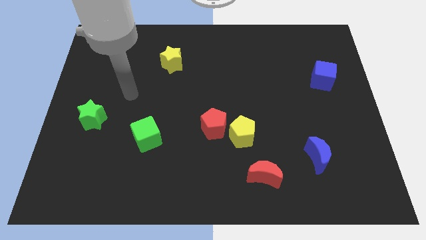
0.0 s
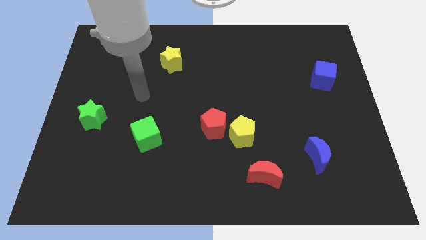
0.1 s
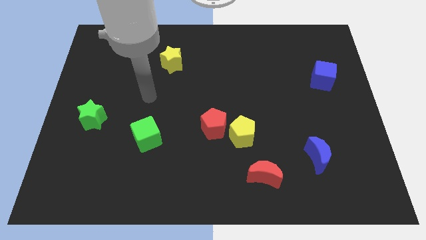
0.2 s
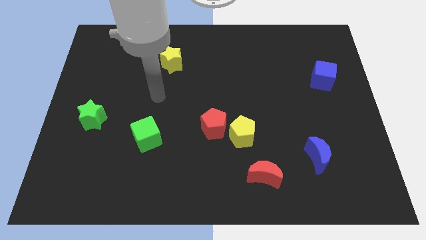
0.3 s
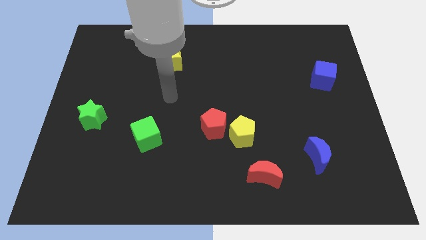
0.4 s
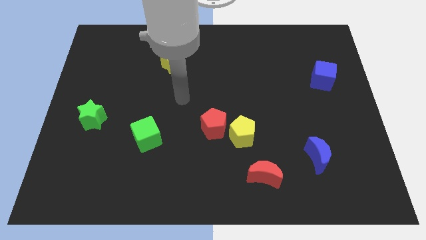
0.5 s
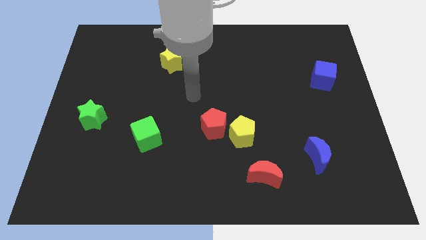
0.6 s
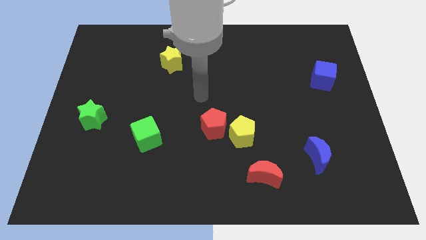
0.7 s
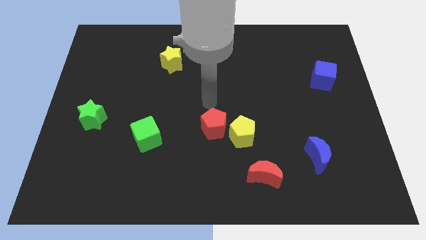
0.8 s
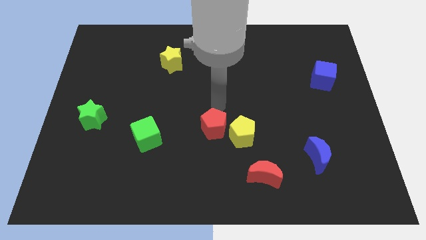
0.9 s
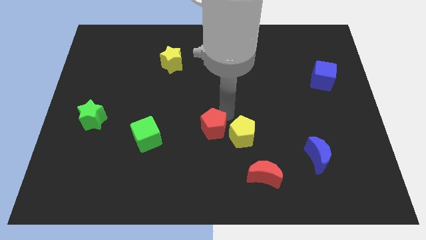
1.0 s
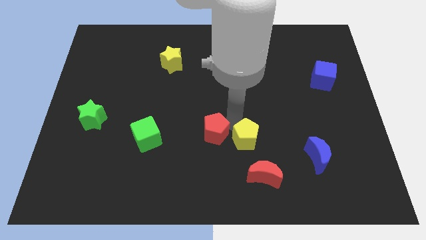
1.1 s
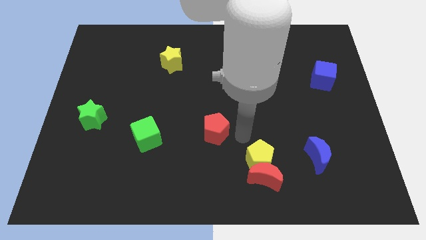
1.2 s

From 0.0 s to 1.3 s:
move the red pentagon away from the yellow pentagon

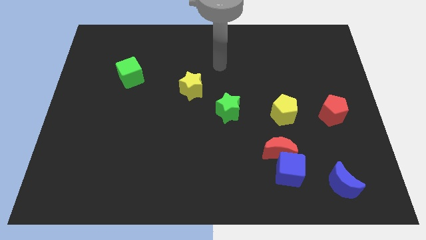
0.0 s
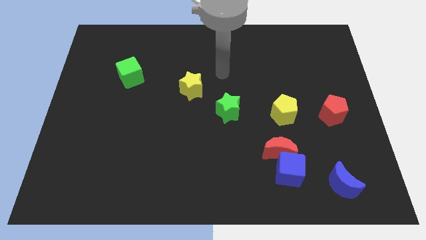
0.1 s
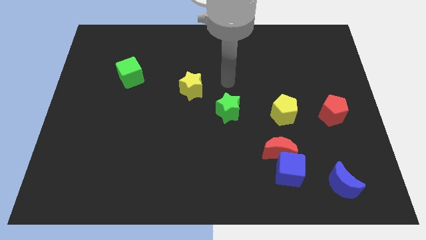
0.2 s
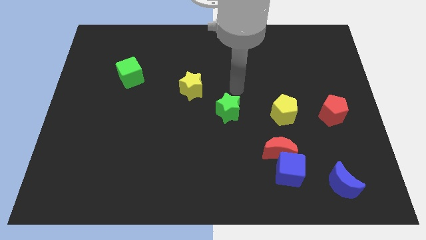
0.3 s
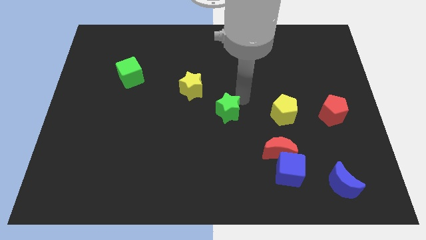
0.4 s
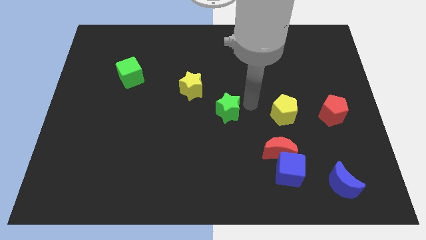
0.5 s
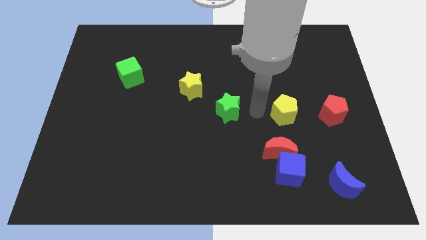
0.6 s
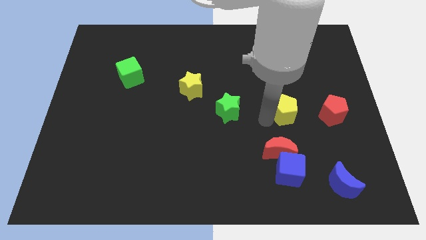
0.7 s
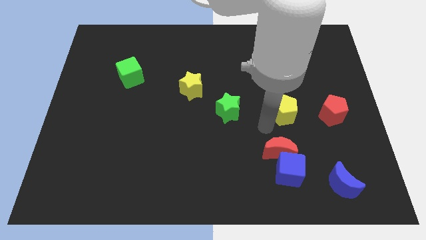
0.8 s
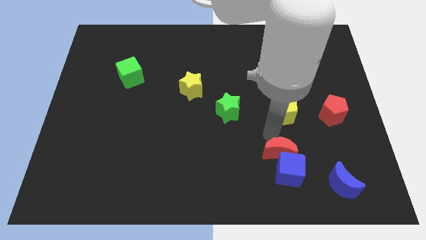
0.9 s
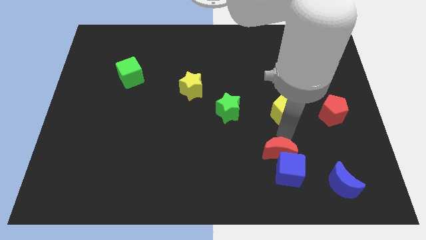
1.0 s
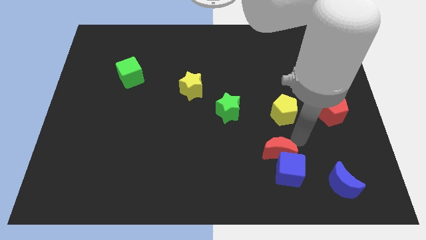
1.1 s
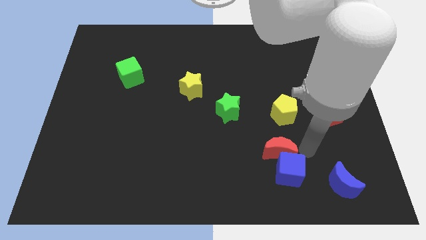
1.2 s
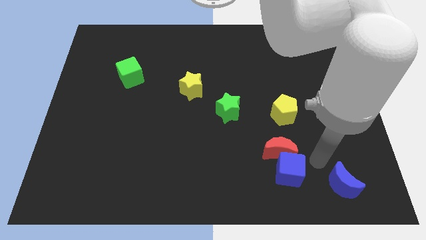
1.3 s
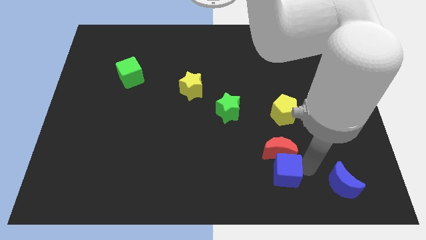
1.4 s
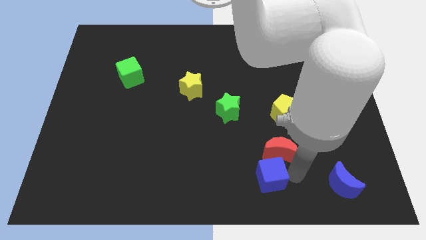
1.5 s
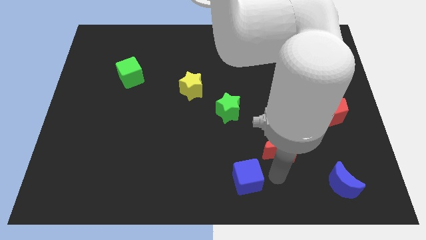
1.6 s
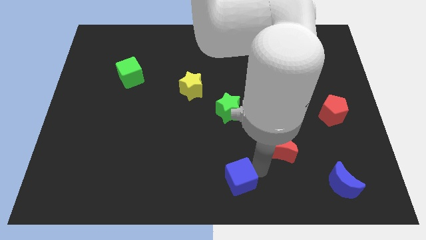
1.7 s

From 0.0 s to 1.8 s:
move the red moon away from the blue cube

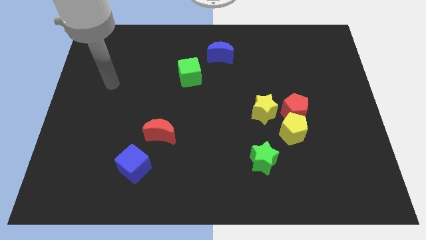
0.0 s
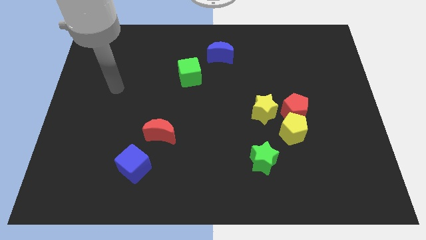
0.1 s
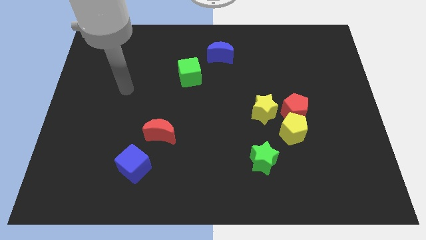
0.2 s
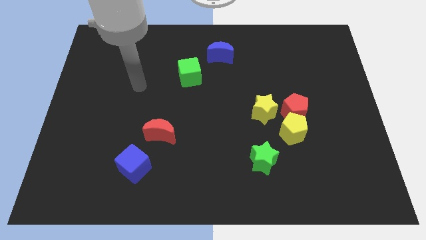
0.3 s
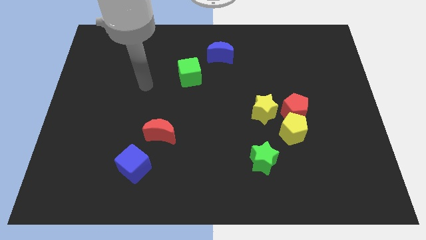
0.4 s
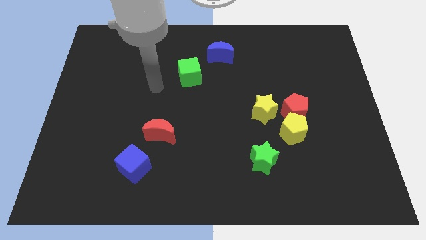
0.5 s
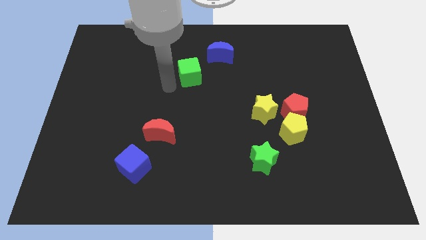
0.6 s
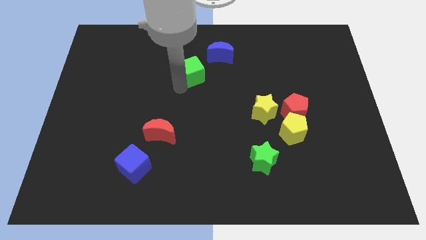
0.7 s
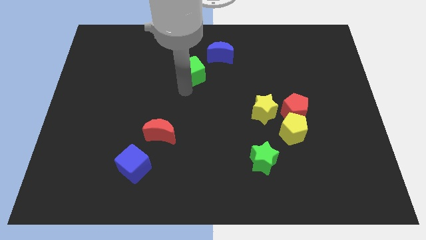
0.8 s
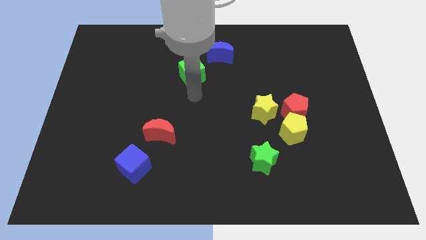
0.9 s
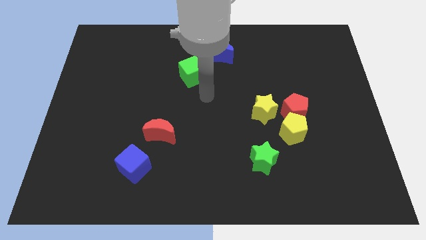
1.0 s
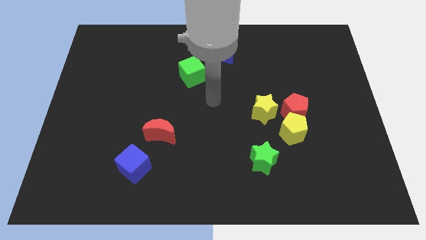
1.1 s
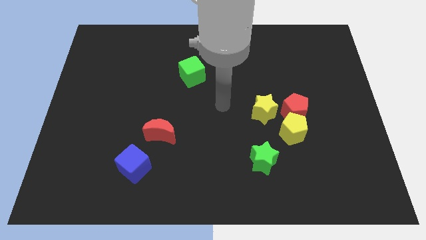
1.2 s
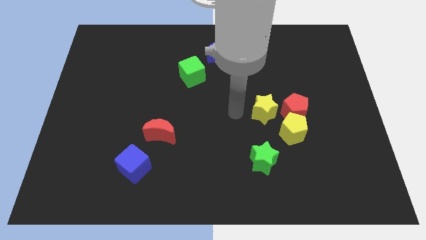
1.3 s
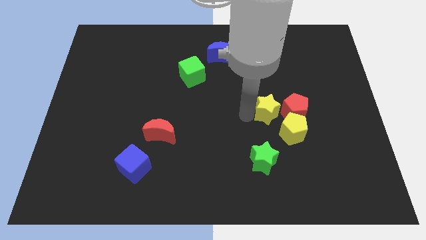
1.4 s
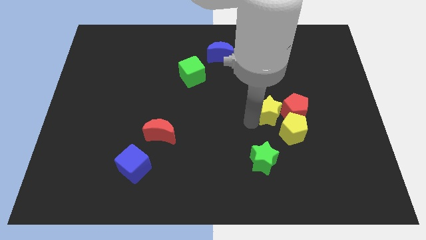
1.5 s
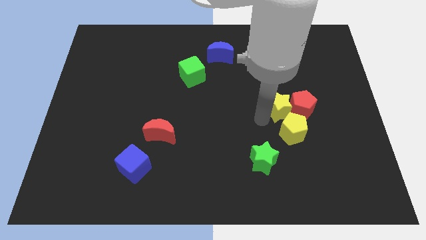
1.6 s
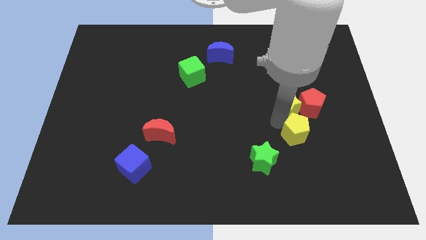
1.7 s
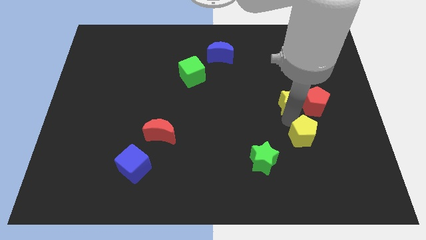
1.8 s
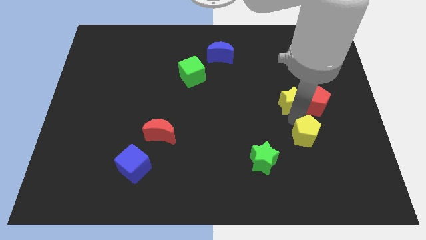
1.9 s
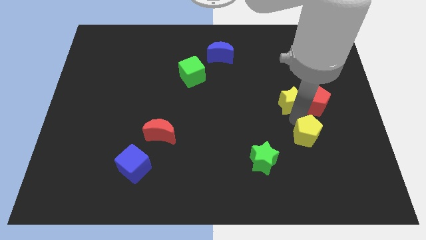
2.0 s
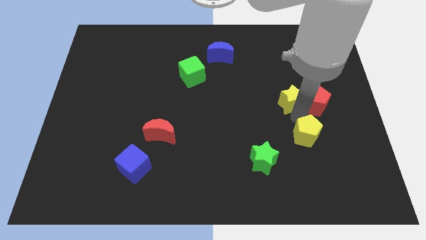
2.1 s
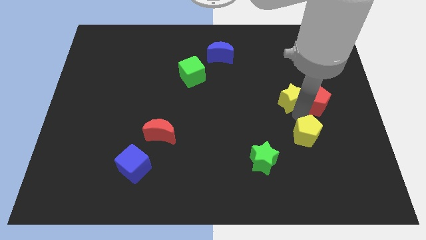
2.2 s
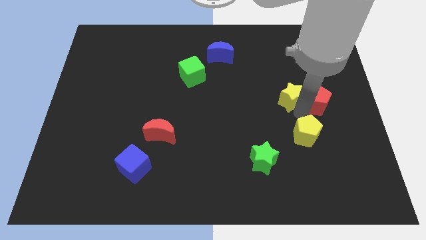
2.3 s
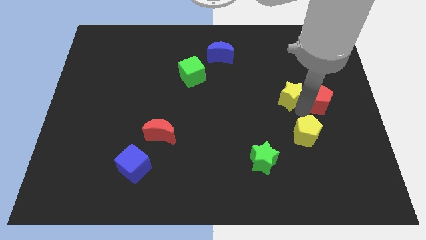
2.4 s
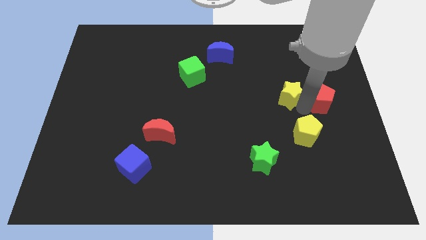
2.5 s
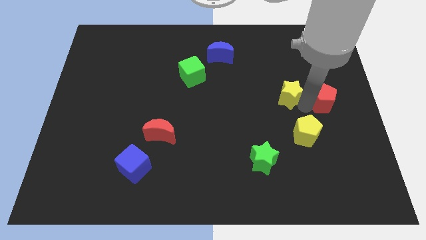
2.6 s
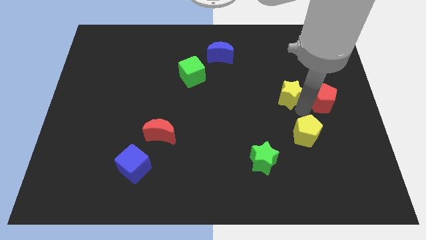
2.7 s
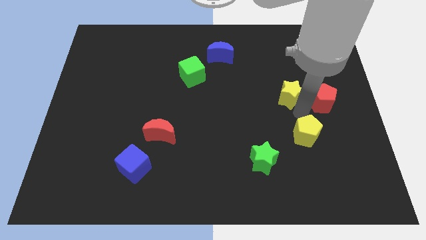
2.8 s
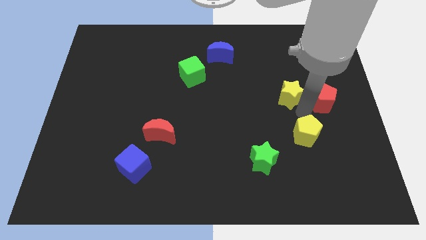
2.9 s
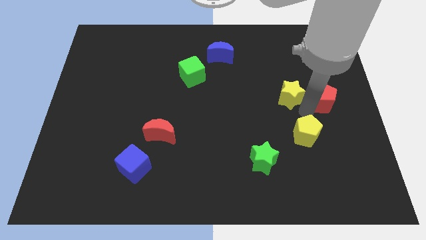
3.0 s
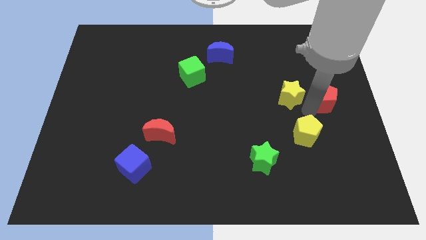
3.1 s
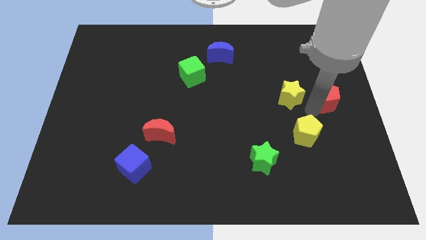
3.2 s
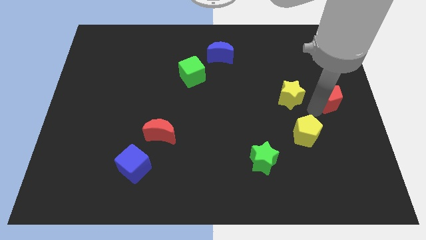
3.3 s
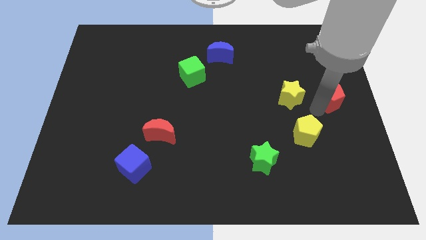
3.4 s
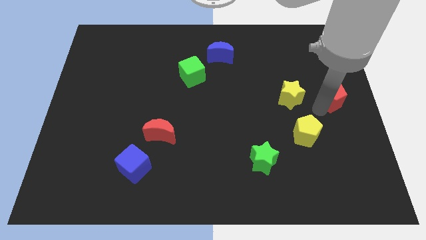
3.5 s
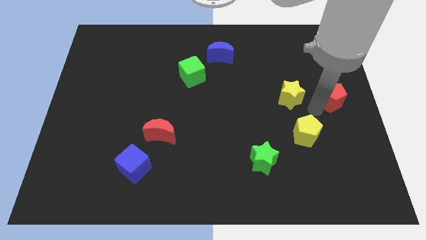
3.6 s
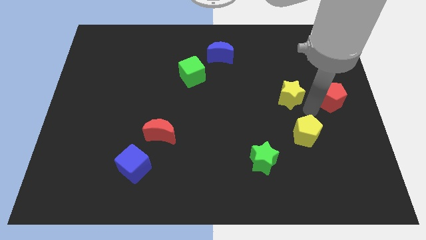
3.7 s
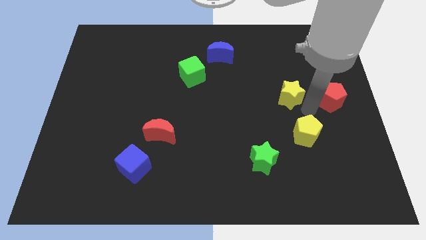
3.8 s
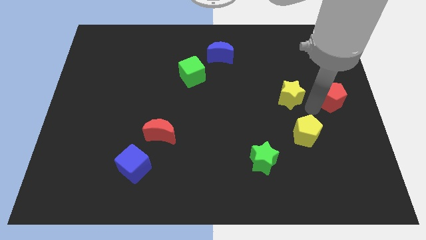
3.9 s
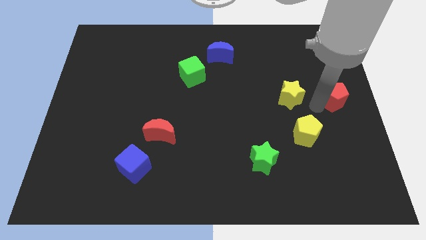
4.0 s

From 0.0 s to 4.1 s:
pull the red pentagon apart from the yellow pentagon and yellow star

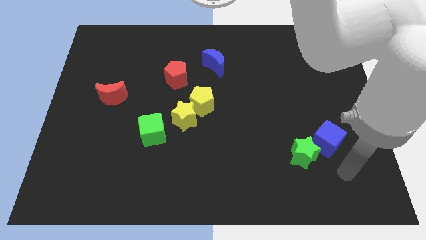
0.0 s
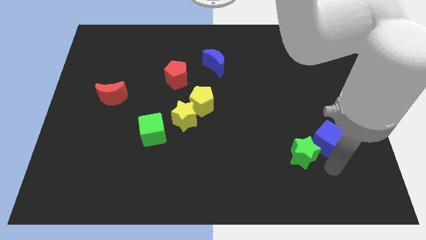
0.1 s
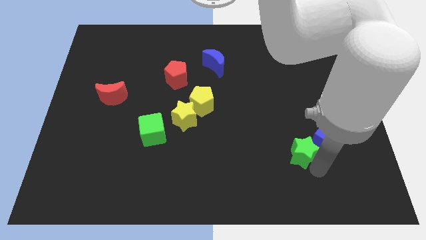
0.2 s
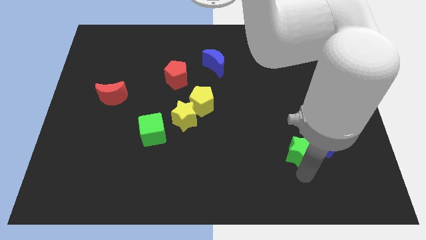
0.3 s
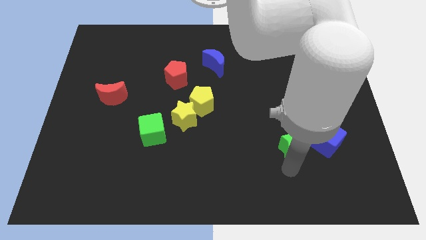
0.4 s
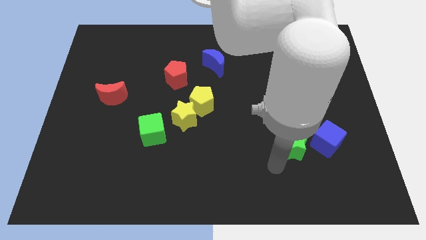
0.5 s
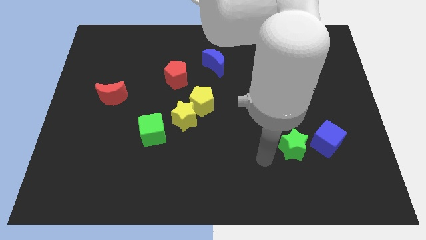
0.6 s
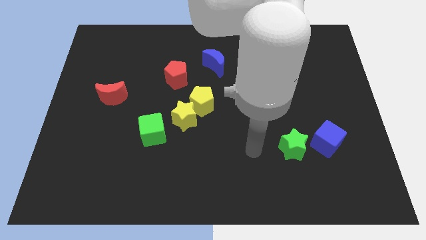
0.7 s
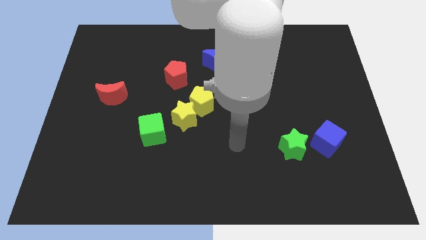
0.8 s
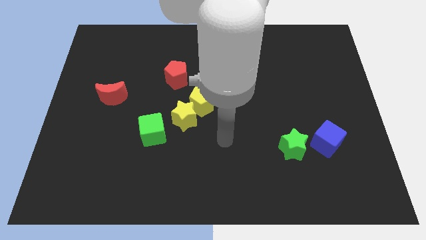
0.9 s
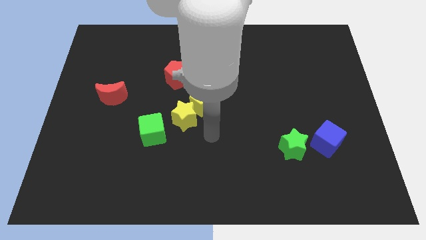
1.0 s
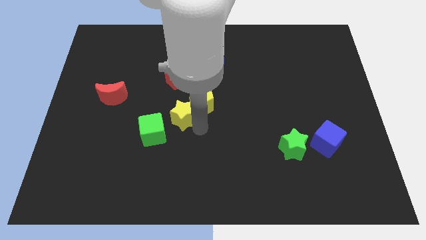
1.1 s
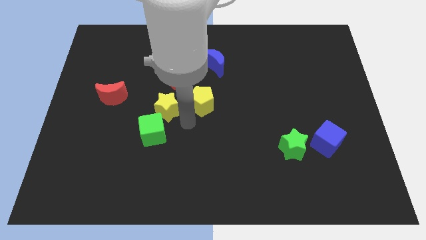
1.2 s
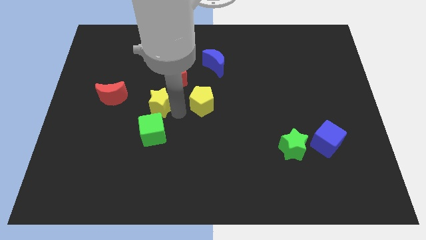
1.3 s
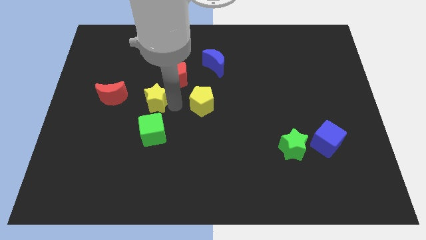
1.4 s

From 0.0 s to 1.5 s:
separate the yellow pentagon from the yellow star

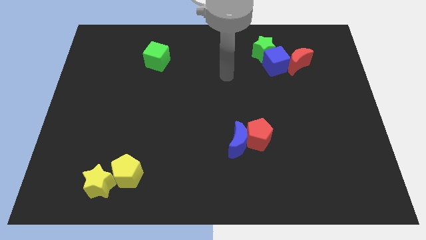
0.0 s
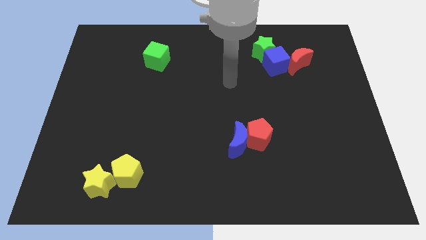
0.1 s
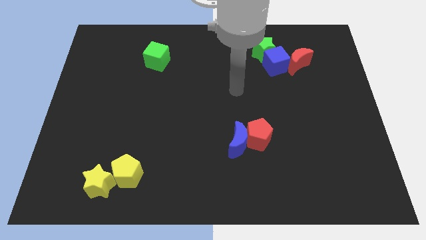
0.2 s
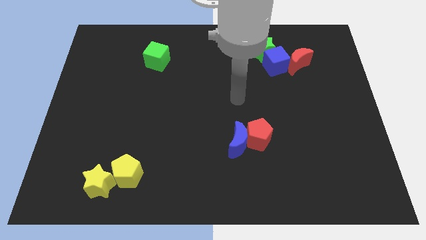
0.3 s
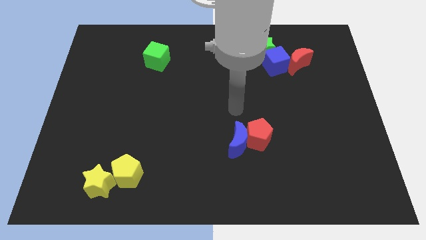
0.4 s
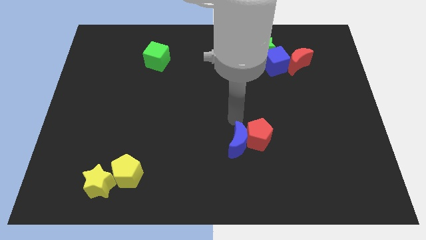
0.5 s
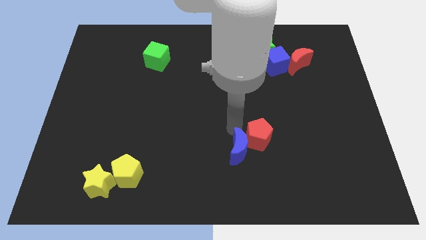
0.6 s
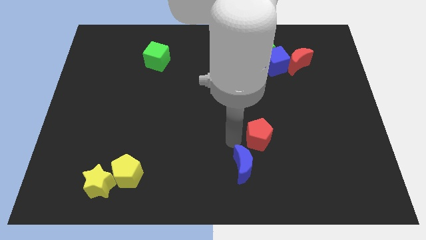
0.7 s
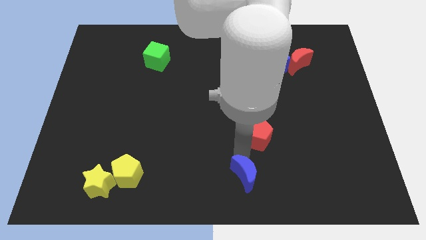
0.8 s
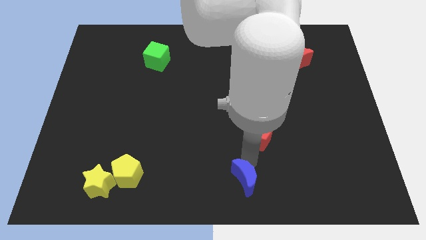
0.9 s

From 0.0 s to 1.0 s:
move the red pentagon away from the blue moon
